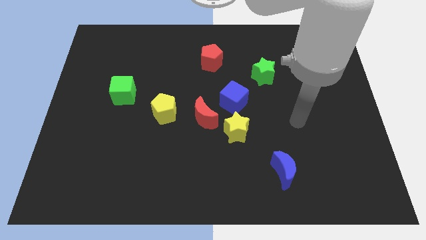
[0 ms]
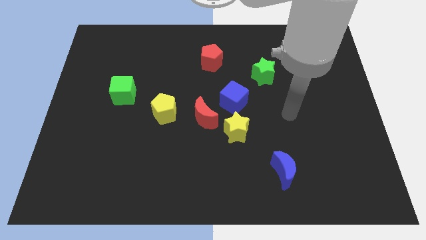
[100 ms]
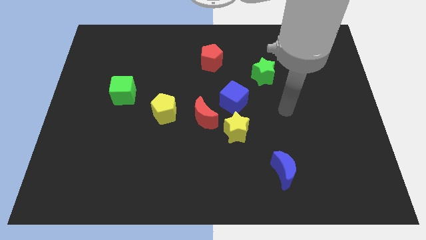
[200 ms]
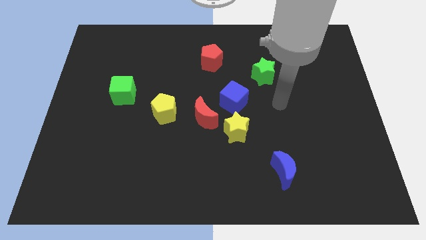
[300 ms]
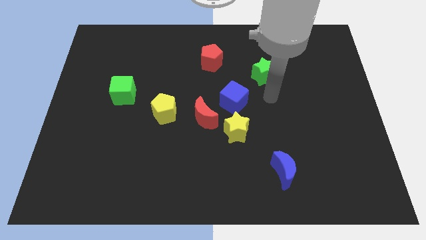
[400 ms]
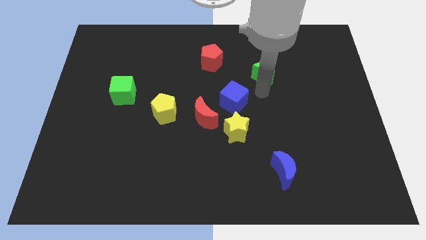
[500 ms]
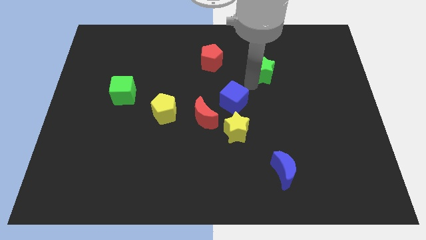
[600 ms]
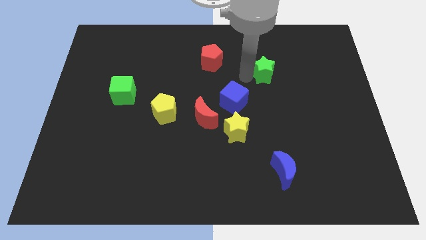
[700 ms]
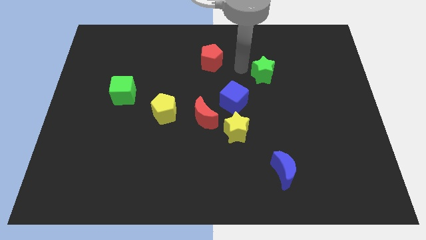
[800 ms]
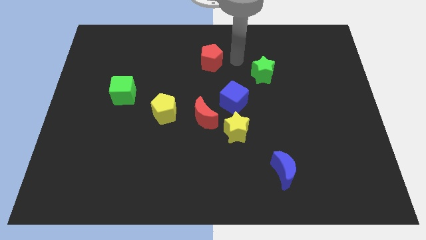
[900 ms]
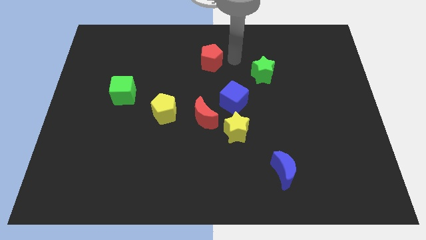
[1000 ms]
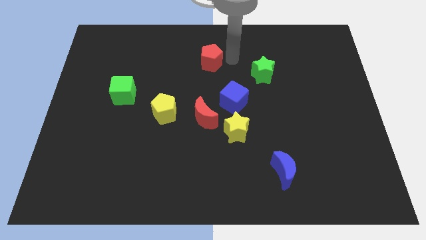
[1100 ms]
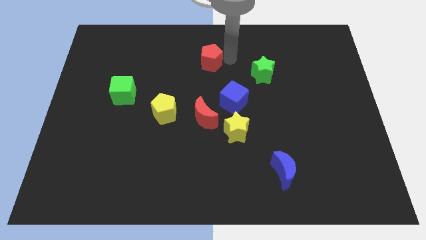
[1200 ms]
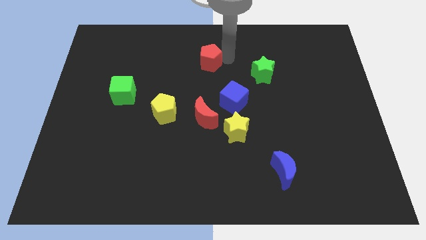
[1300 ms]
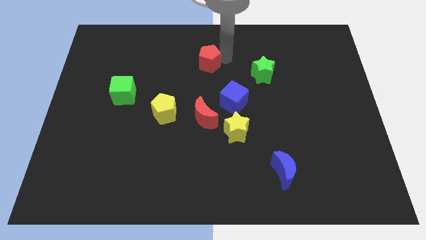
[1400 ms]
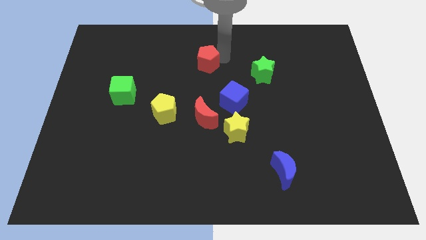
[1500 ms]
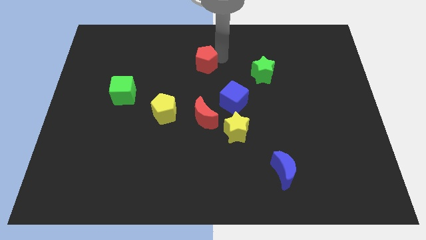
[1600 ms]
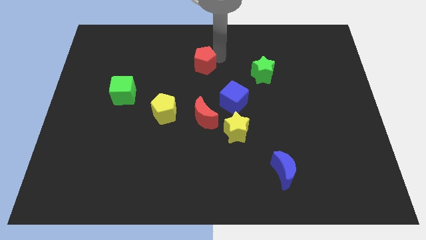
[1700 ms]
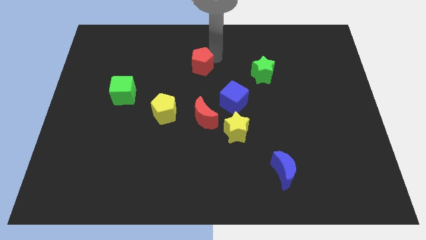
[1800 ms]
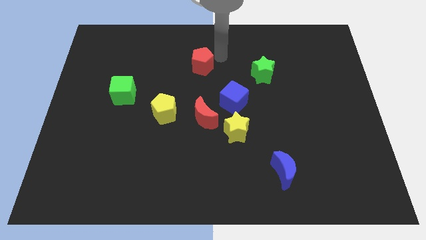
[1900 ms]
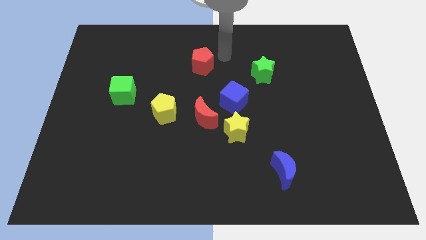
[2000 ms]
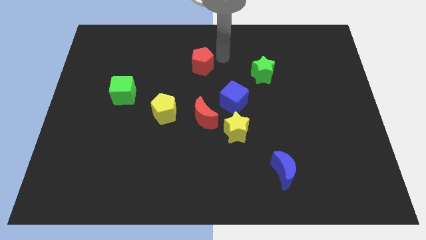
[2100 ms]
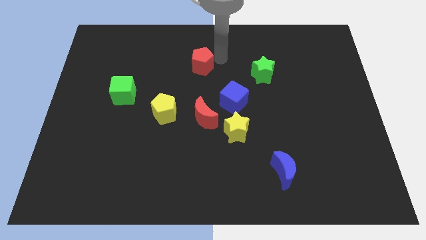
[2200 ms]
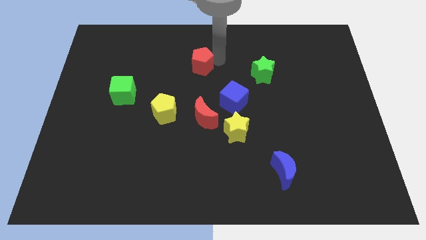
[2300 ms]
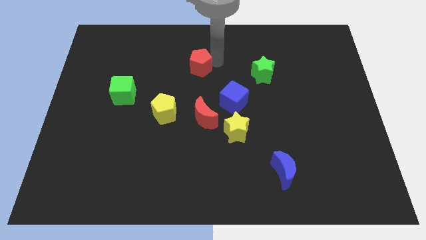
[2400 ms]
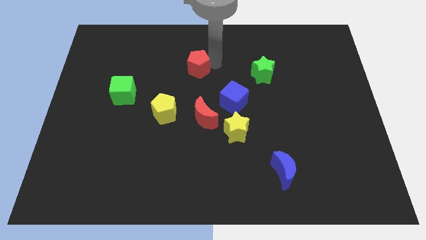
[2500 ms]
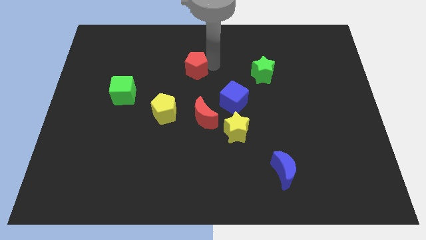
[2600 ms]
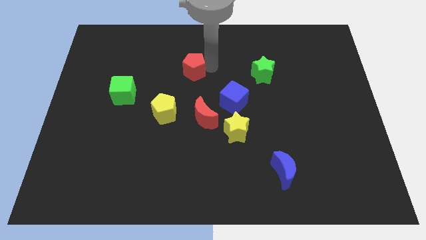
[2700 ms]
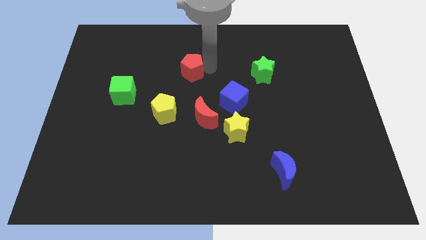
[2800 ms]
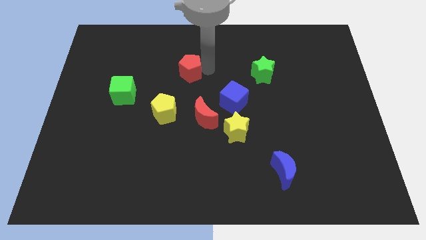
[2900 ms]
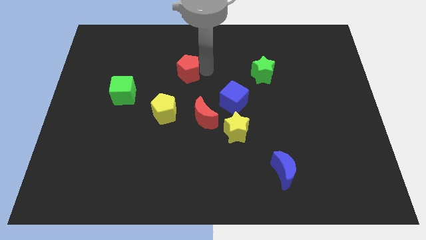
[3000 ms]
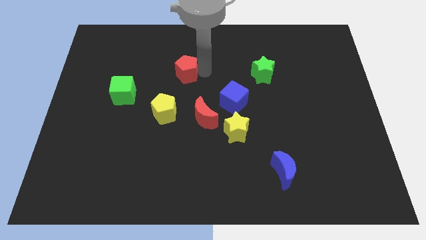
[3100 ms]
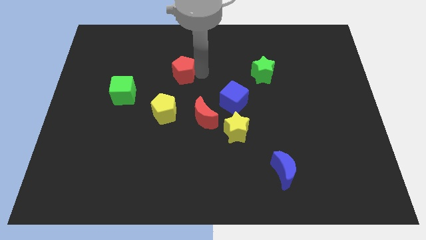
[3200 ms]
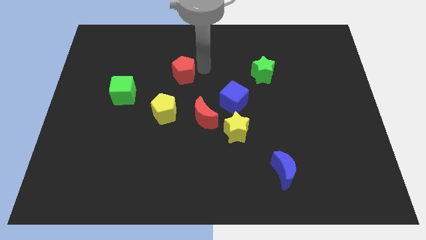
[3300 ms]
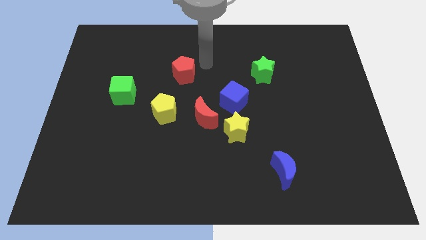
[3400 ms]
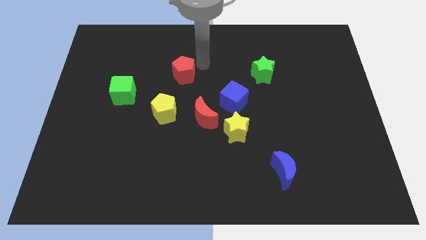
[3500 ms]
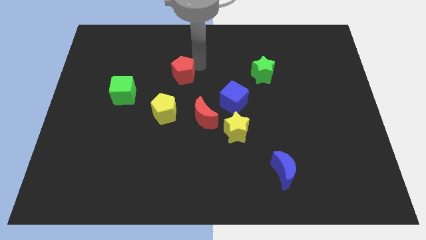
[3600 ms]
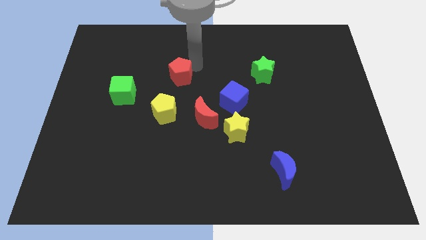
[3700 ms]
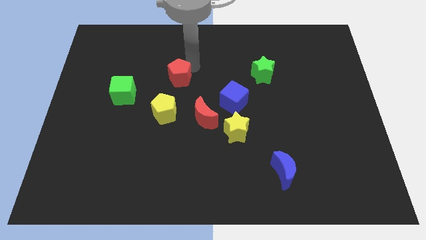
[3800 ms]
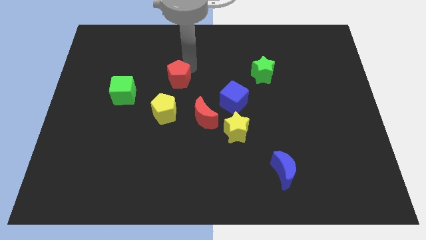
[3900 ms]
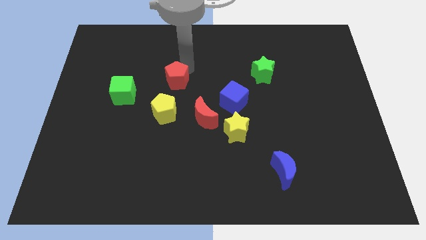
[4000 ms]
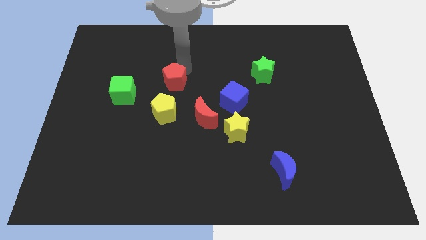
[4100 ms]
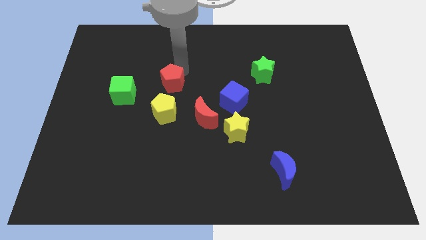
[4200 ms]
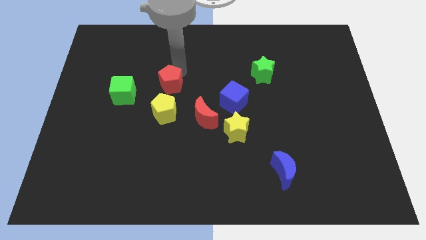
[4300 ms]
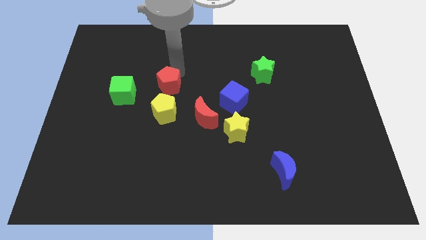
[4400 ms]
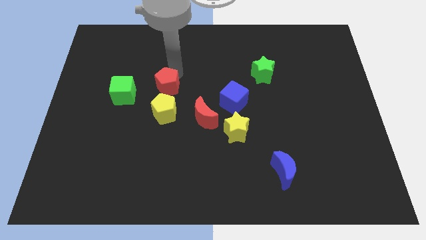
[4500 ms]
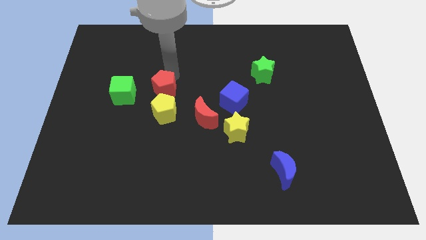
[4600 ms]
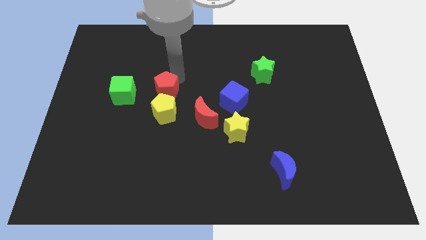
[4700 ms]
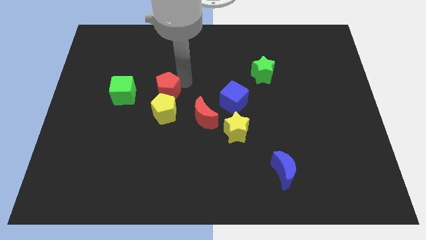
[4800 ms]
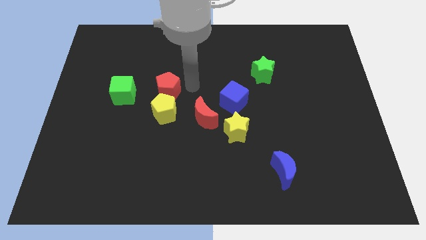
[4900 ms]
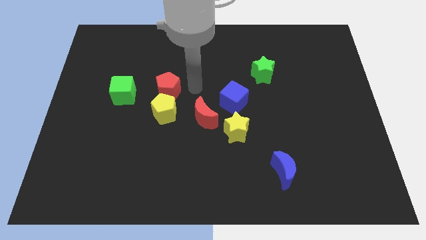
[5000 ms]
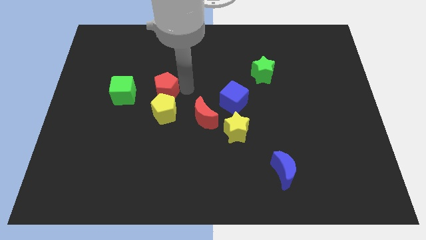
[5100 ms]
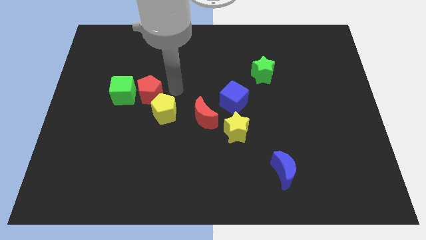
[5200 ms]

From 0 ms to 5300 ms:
push the red pentagon towards the green cube

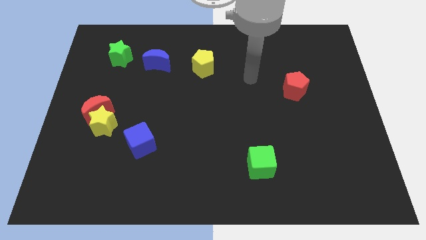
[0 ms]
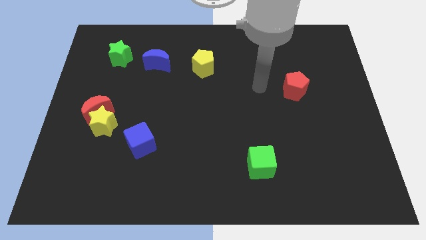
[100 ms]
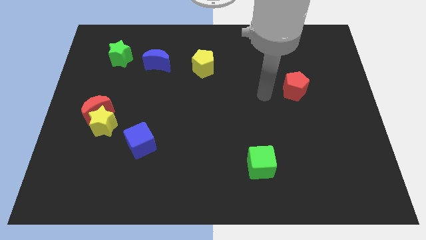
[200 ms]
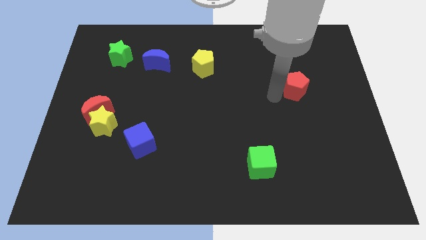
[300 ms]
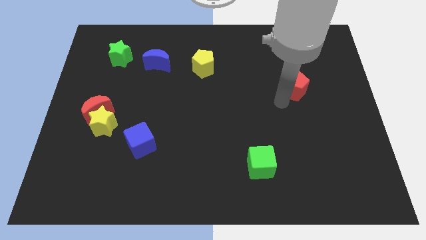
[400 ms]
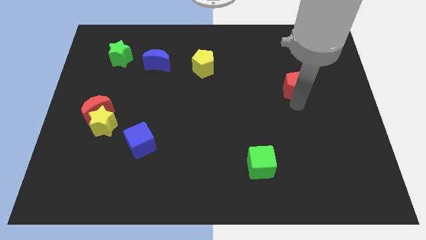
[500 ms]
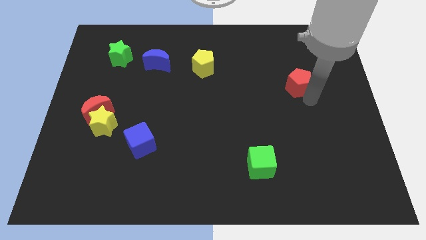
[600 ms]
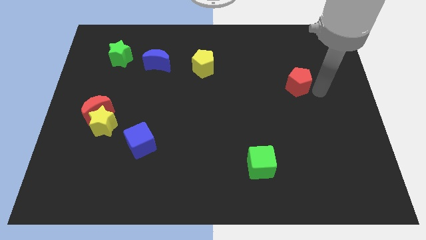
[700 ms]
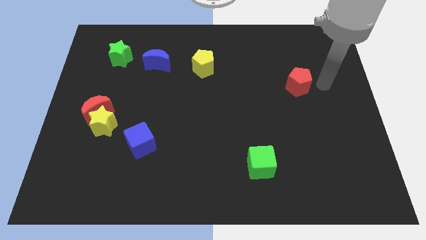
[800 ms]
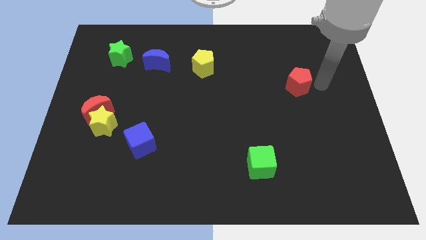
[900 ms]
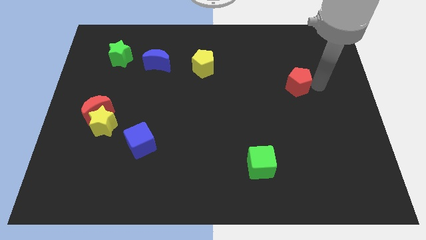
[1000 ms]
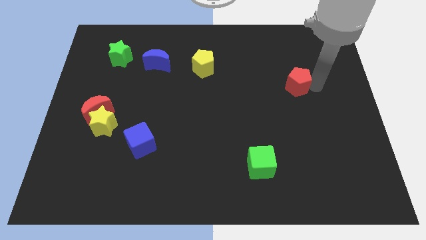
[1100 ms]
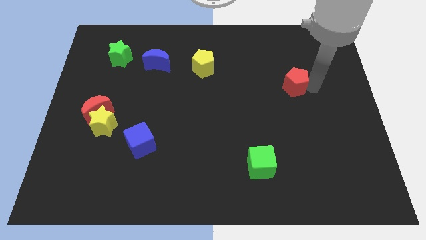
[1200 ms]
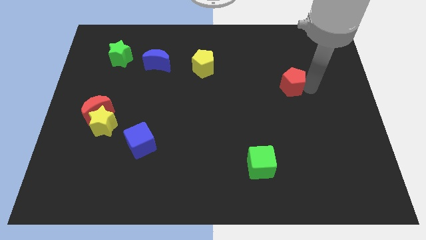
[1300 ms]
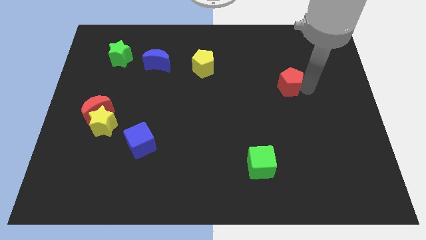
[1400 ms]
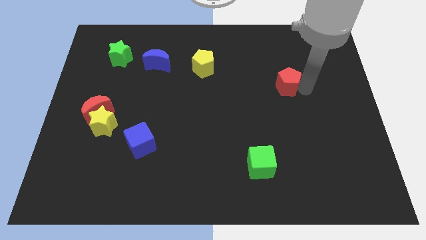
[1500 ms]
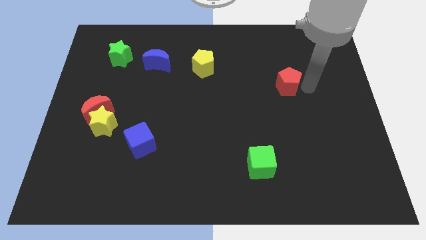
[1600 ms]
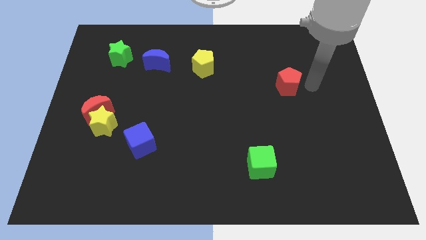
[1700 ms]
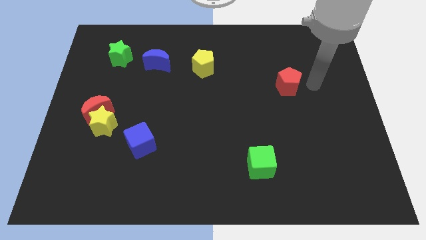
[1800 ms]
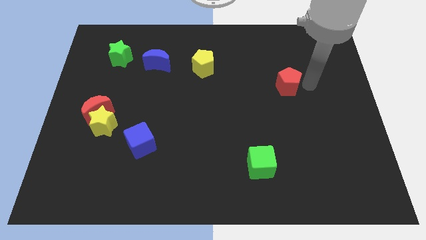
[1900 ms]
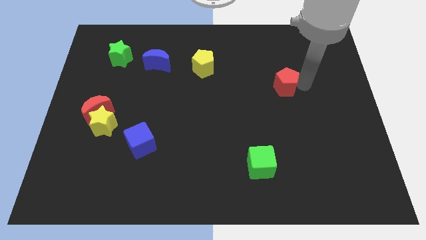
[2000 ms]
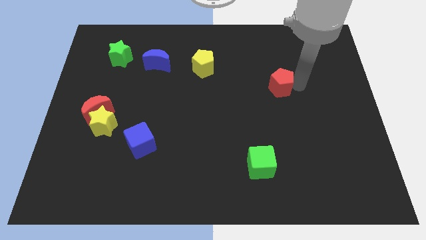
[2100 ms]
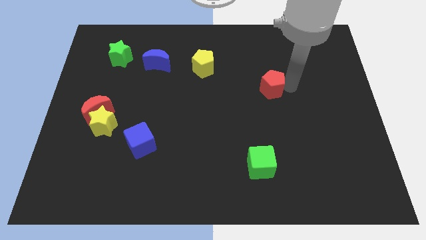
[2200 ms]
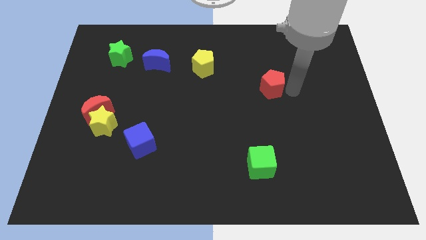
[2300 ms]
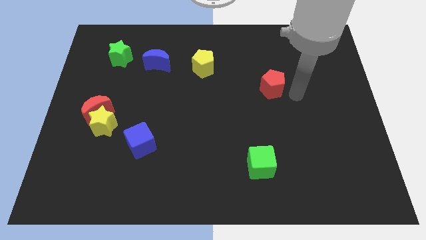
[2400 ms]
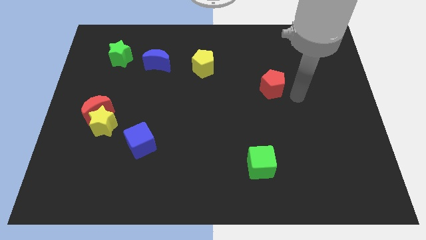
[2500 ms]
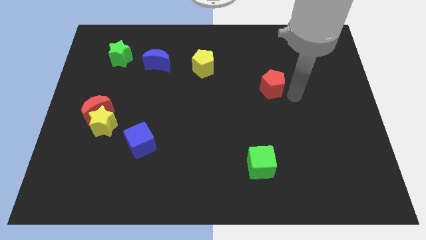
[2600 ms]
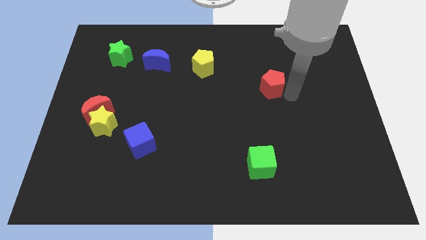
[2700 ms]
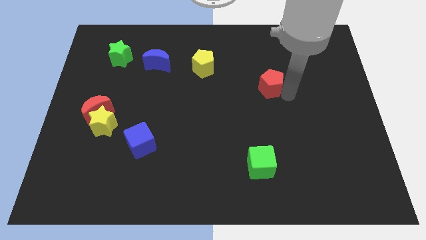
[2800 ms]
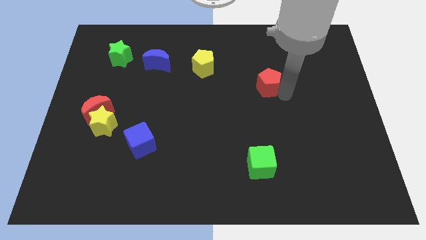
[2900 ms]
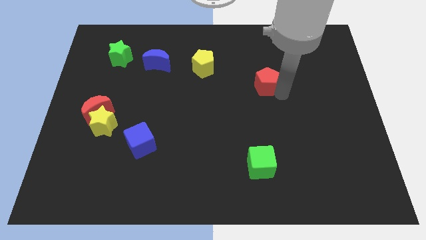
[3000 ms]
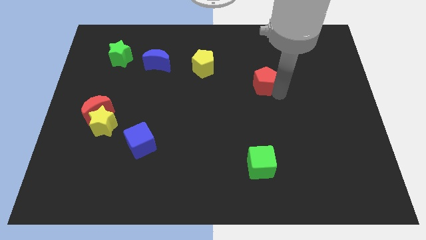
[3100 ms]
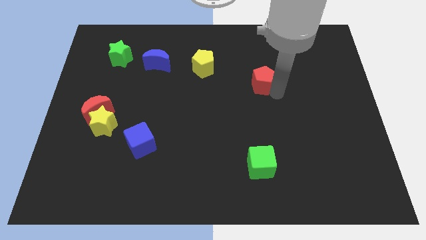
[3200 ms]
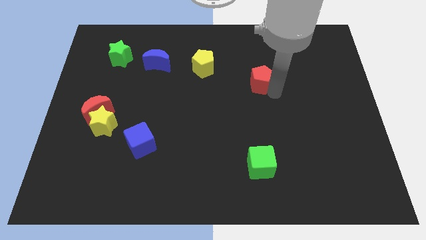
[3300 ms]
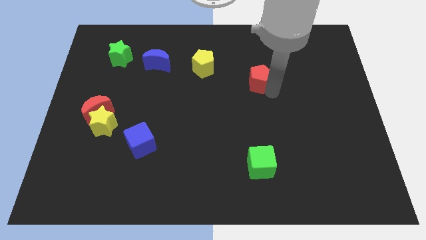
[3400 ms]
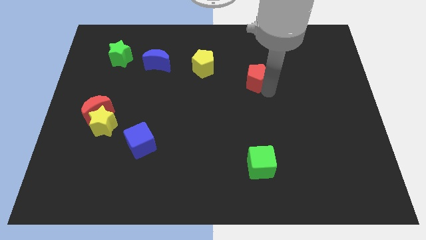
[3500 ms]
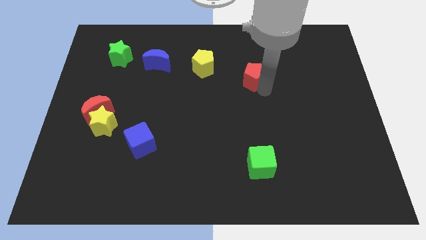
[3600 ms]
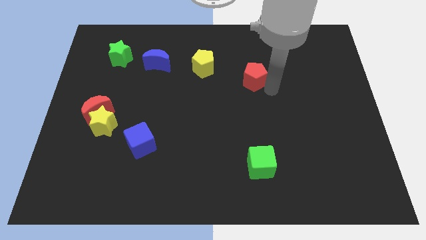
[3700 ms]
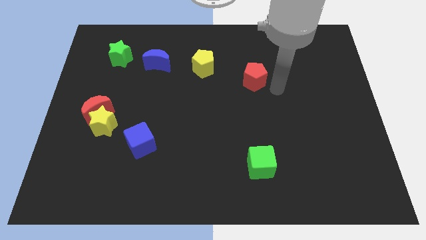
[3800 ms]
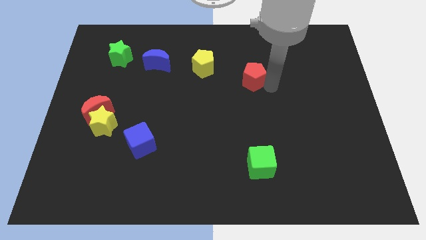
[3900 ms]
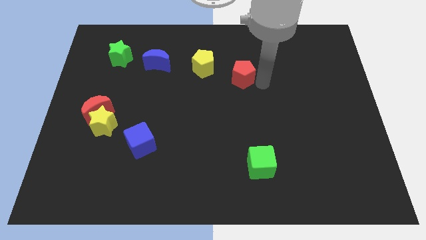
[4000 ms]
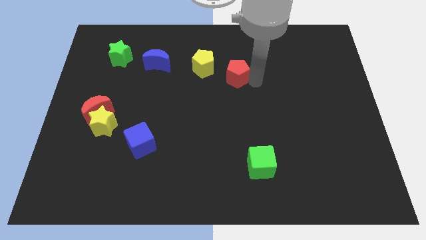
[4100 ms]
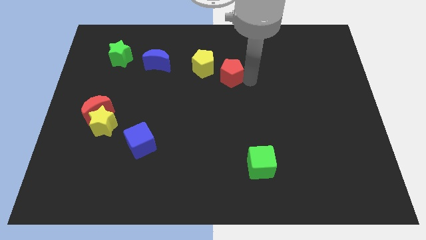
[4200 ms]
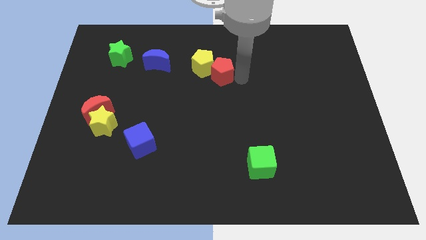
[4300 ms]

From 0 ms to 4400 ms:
put the red pentagon close to the yellow pentagon
